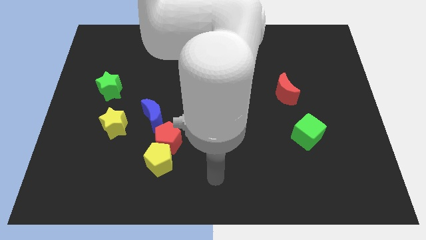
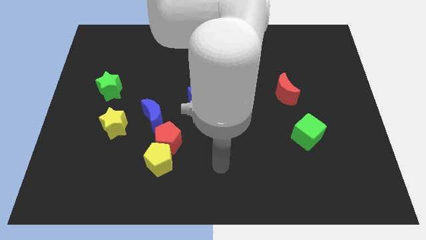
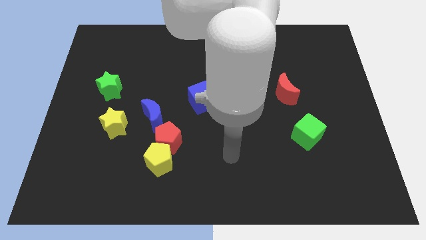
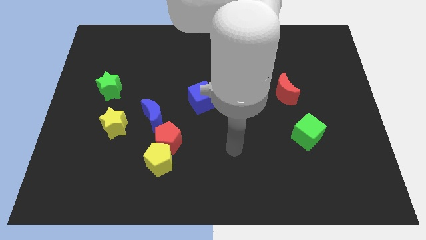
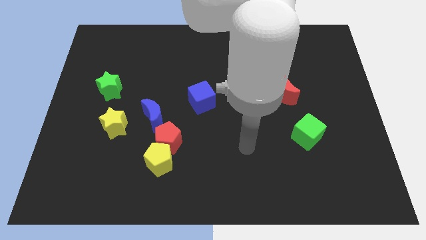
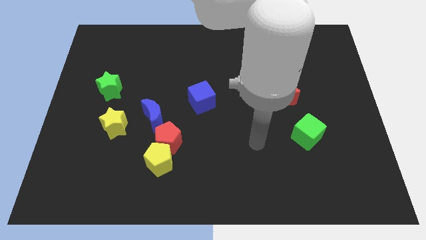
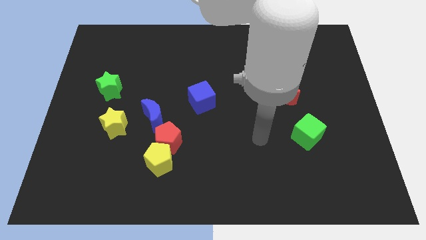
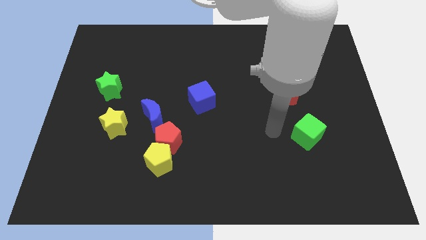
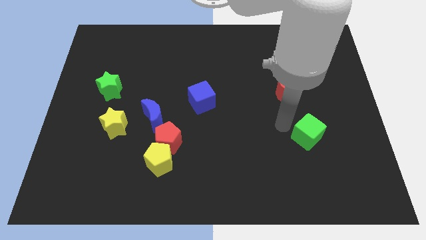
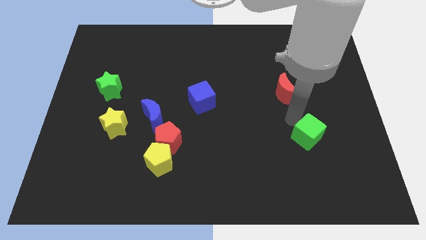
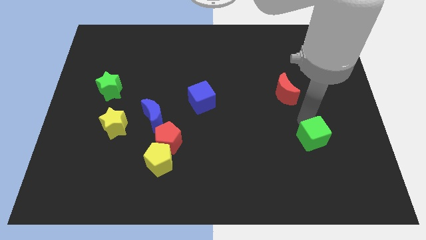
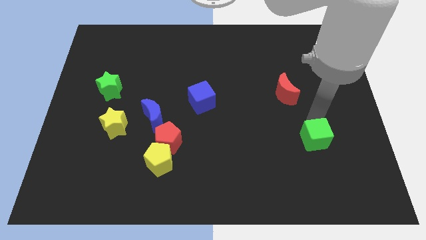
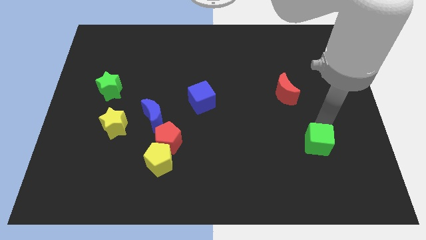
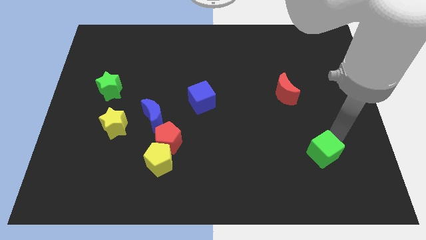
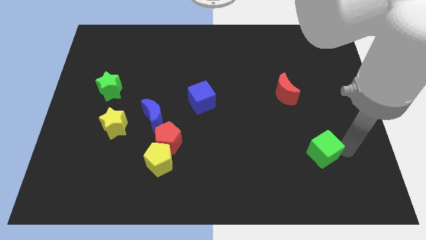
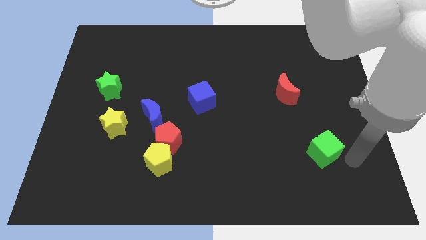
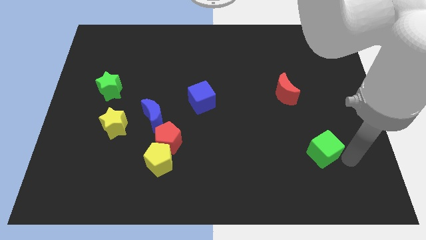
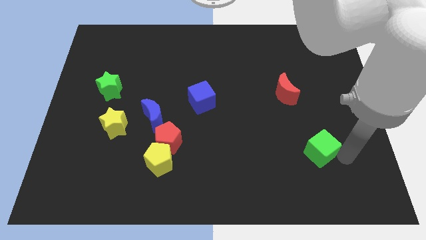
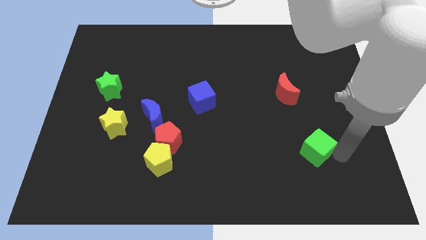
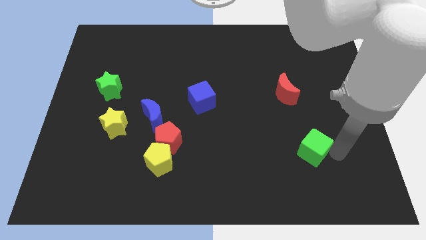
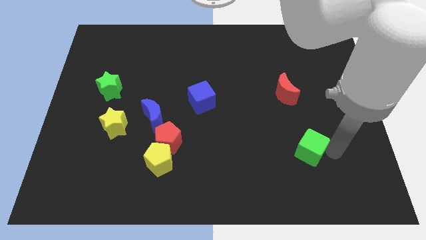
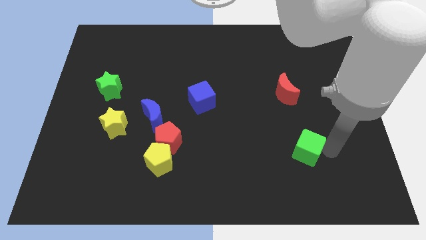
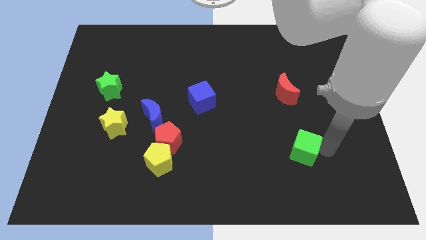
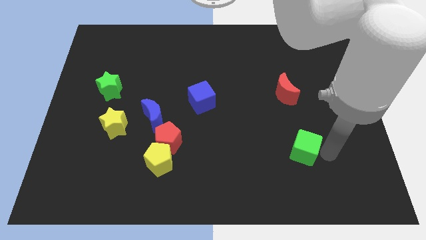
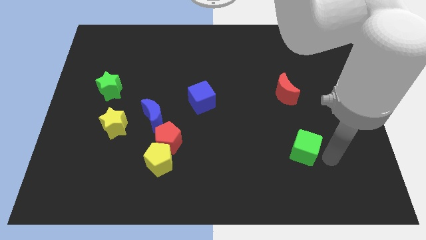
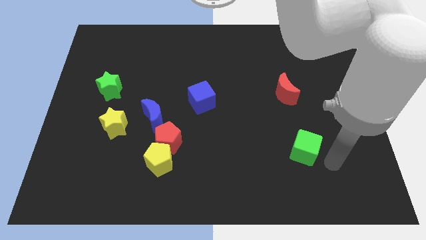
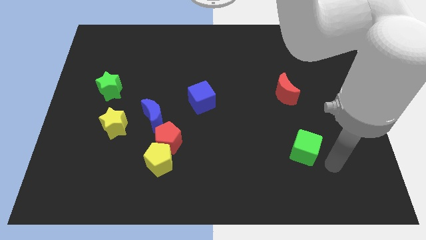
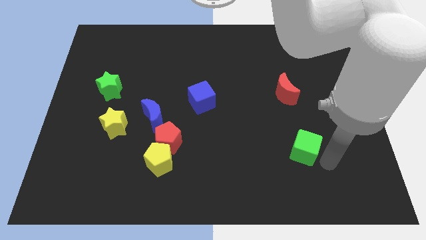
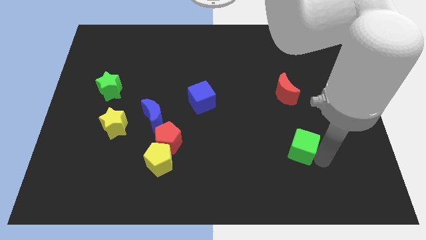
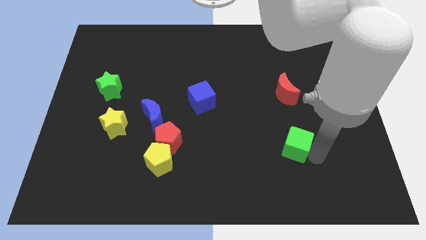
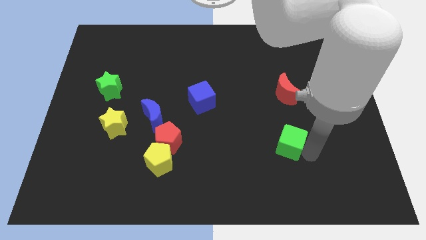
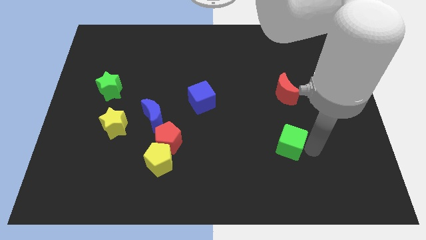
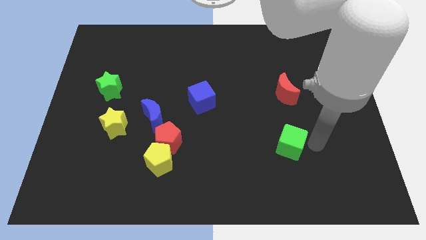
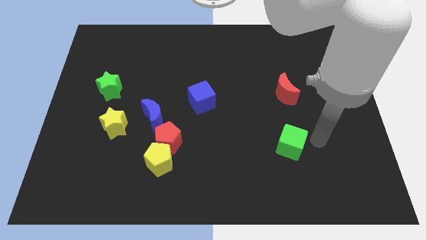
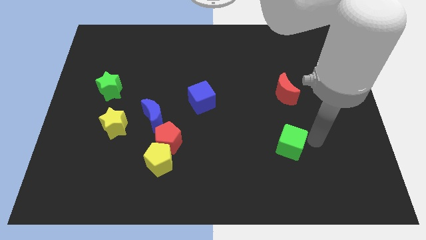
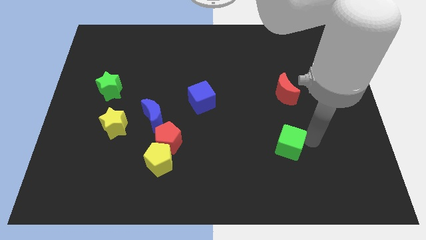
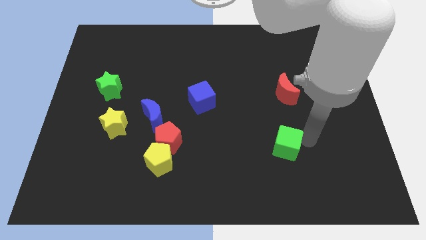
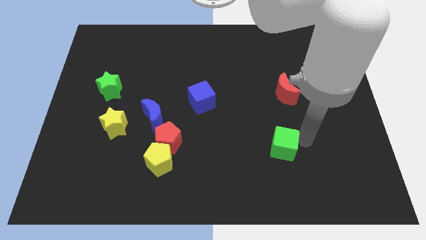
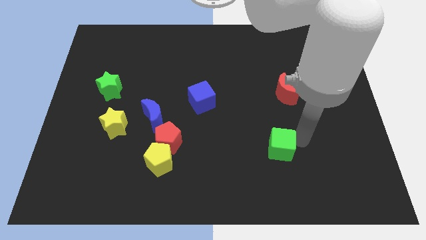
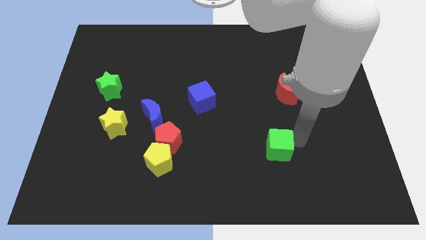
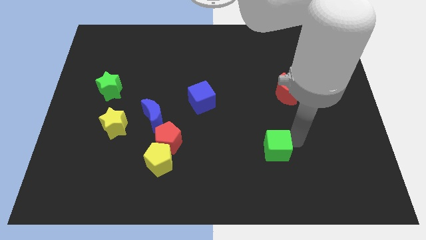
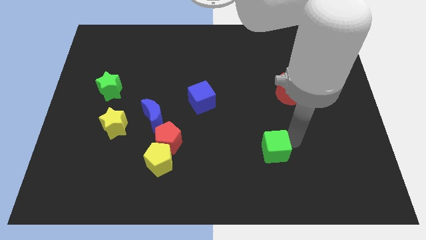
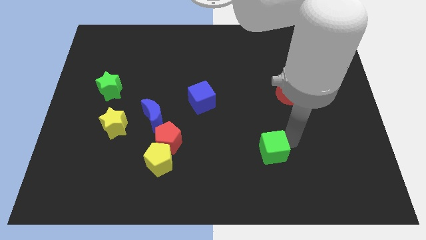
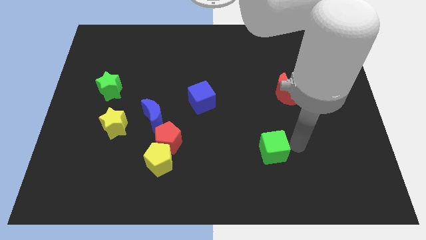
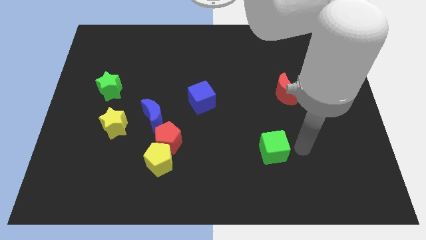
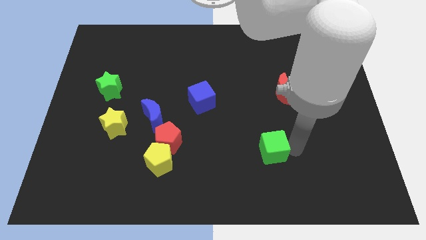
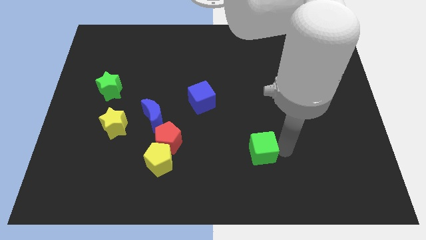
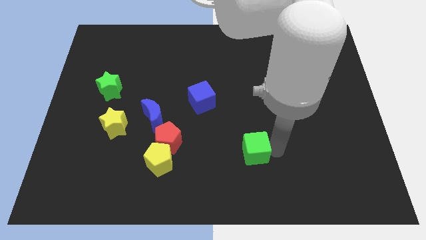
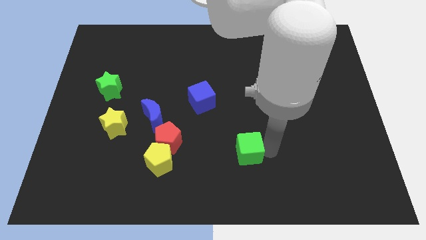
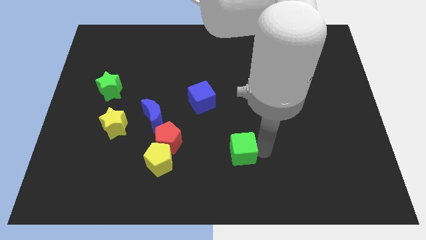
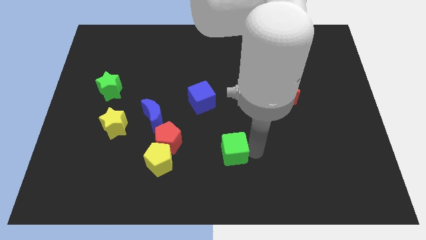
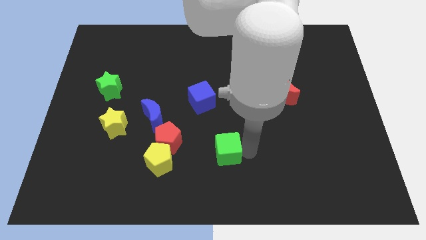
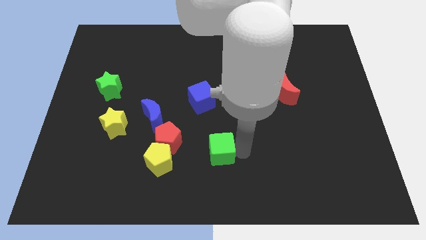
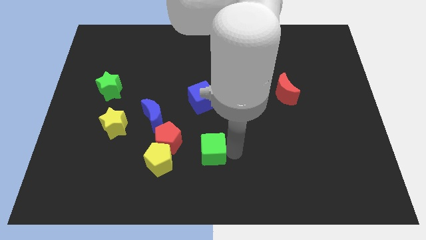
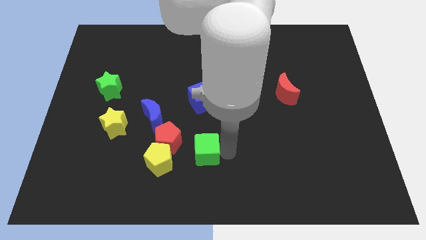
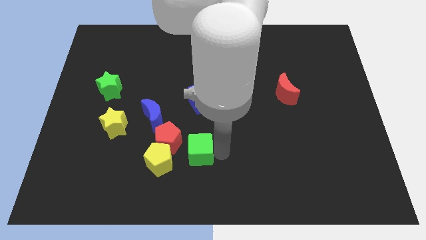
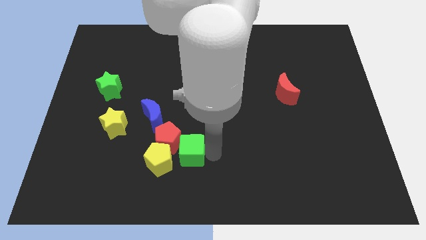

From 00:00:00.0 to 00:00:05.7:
push the green cube towards the red pentagon

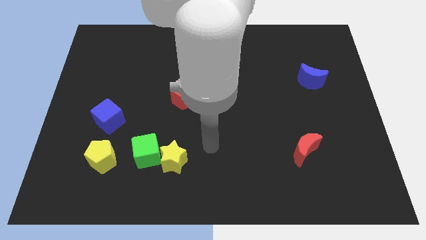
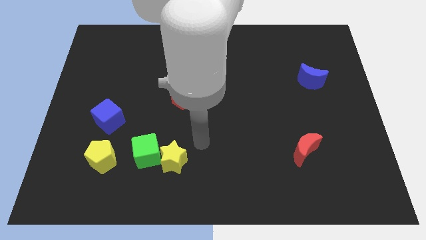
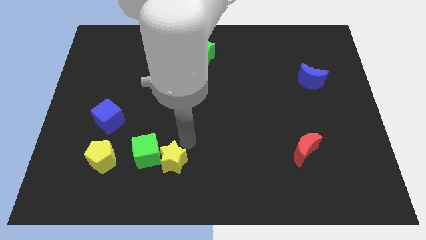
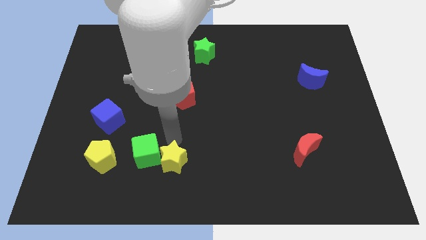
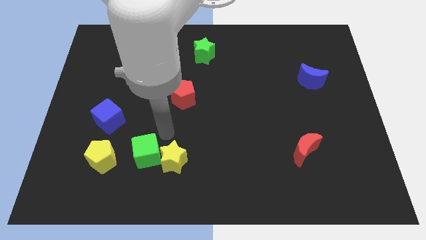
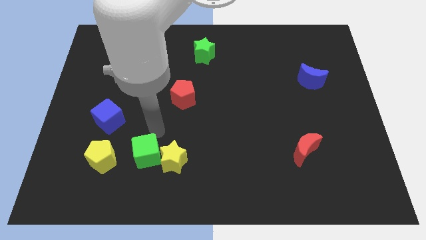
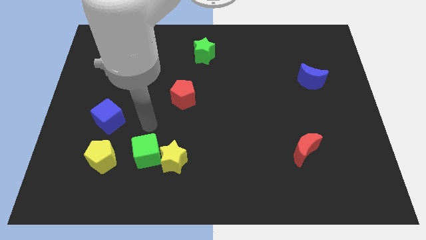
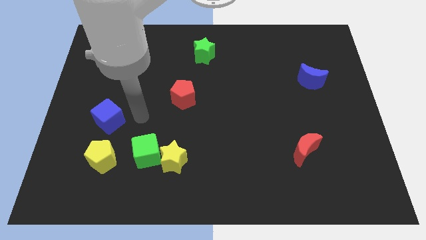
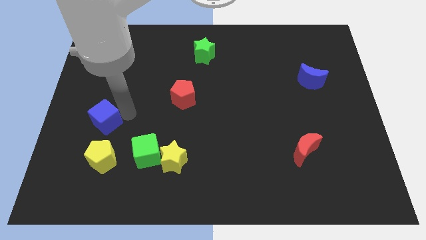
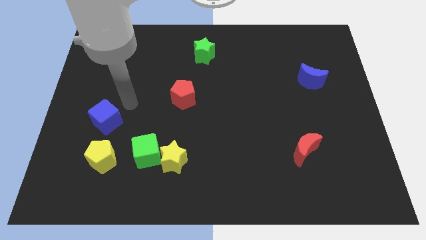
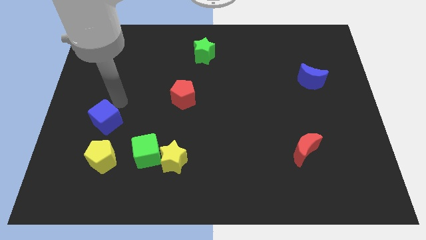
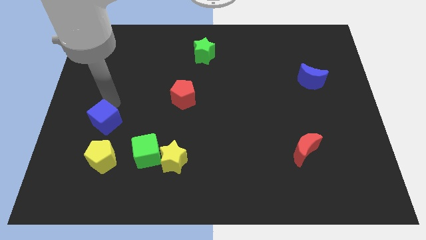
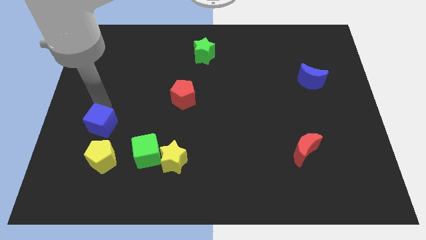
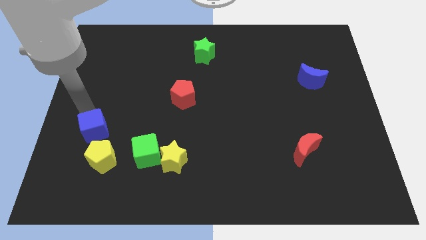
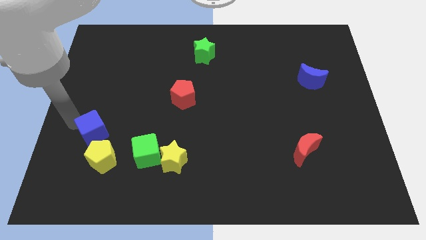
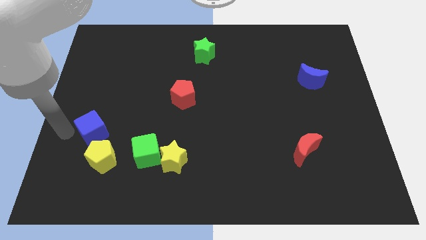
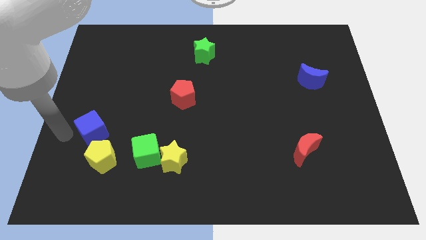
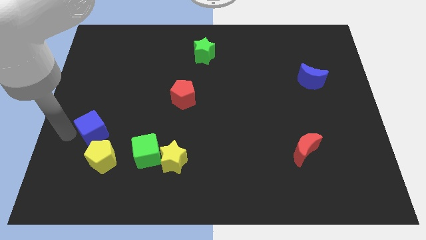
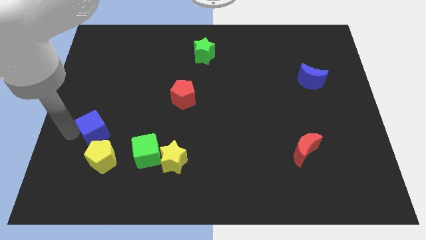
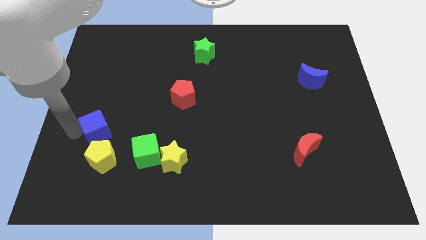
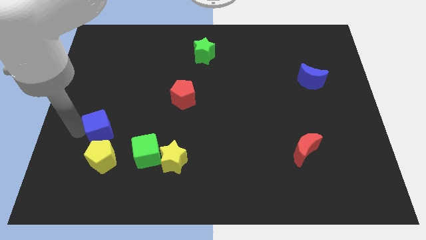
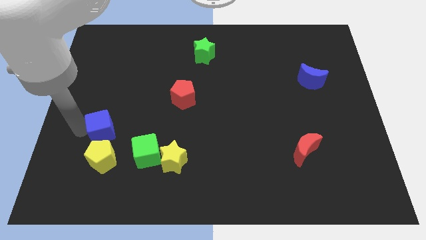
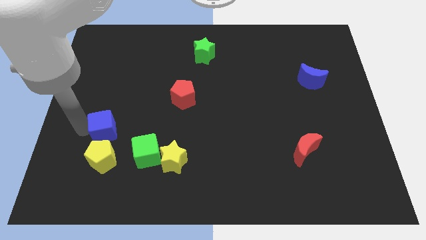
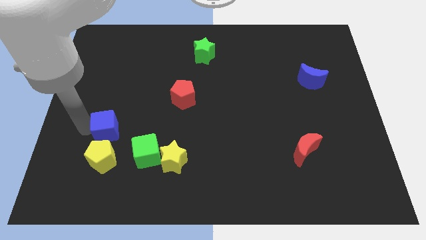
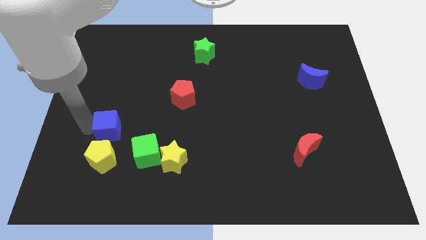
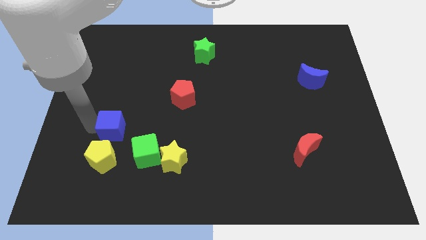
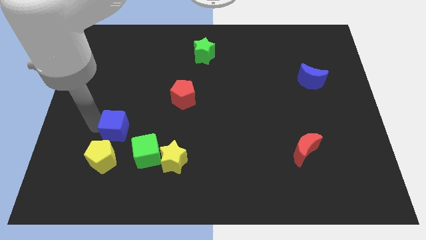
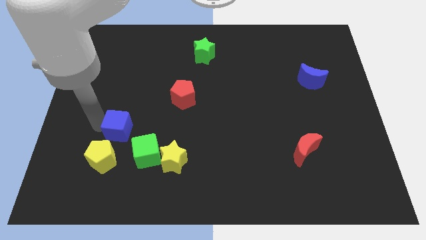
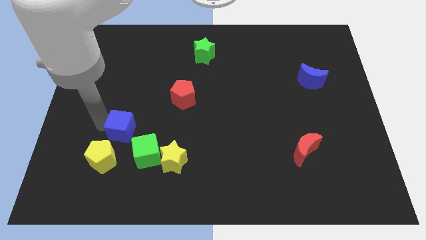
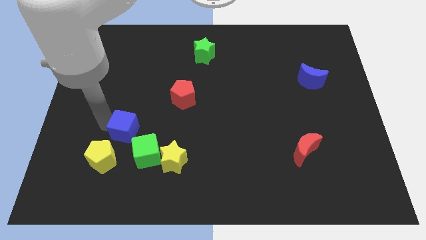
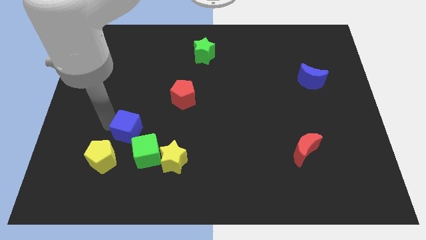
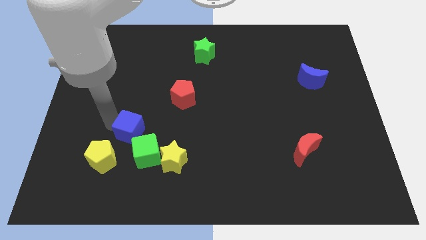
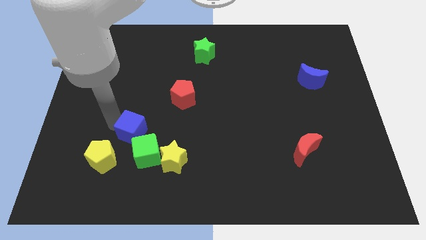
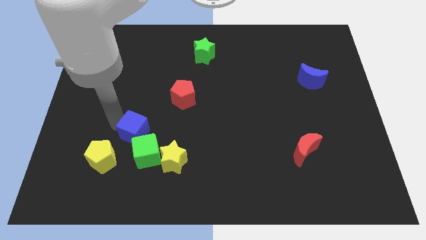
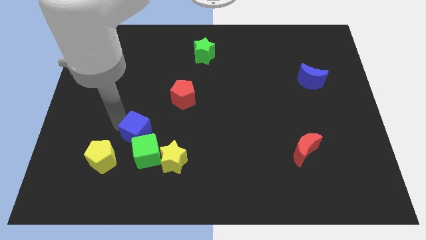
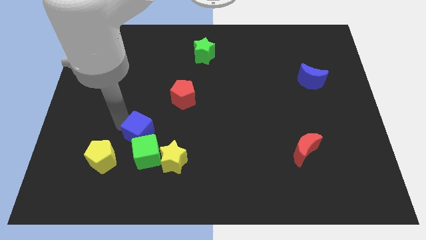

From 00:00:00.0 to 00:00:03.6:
put the blue cube next to the green cube
